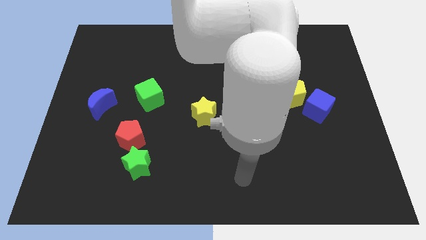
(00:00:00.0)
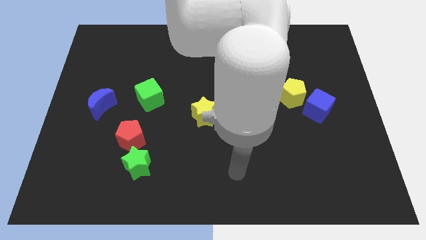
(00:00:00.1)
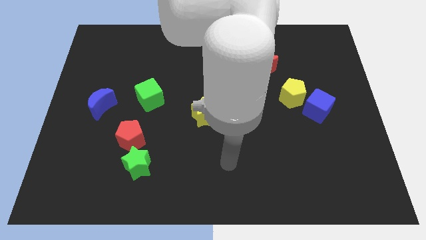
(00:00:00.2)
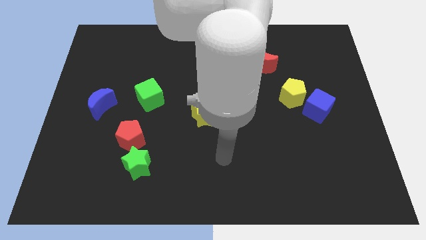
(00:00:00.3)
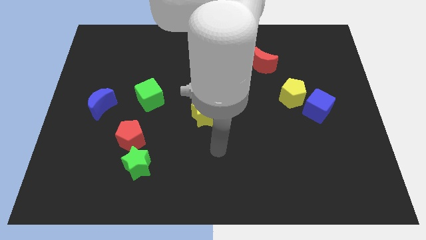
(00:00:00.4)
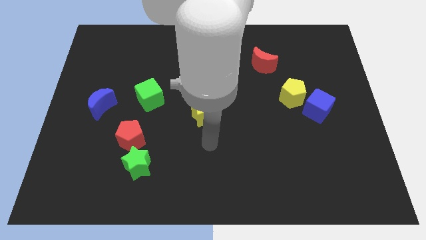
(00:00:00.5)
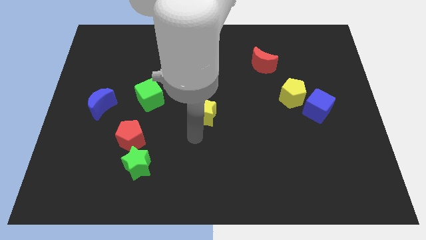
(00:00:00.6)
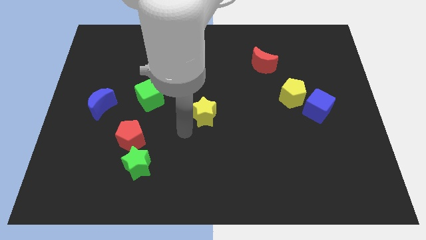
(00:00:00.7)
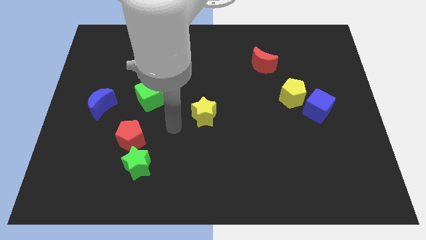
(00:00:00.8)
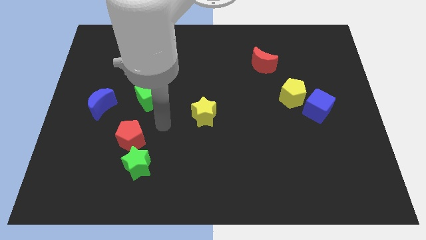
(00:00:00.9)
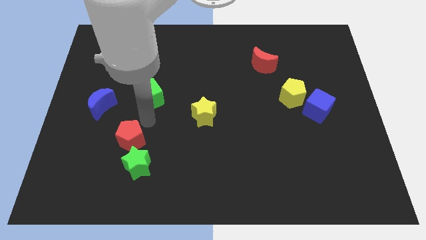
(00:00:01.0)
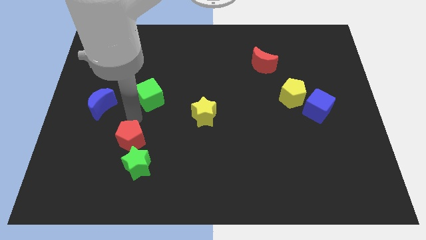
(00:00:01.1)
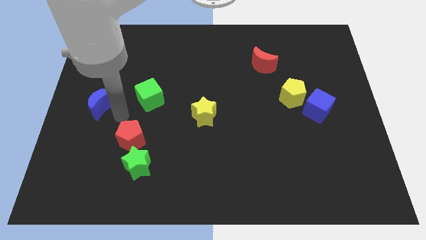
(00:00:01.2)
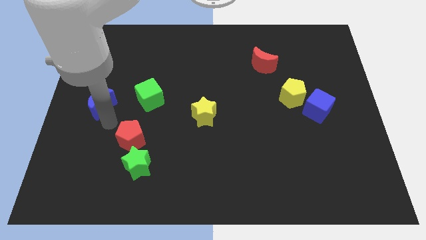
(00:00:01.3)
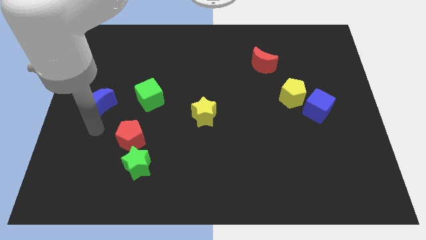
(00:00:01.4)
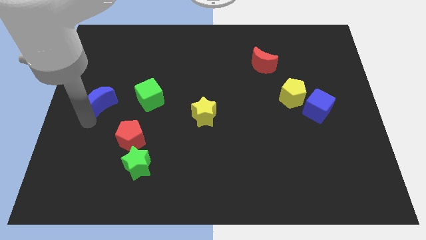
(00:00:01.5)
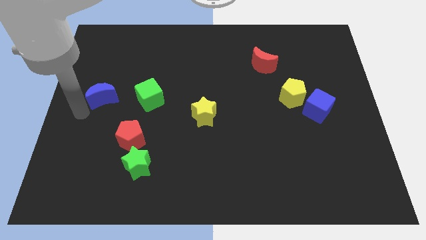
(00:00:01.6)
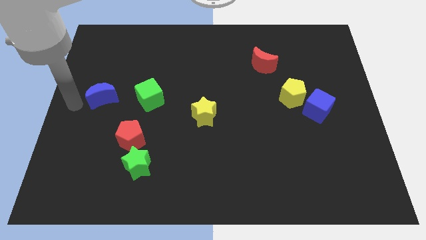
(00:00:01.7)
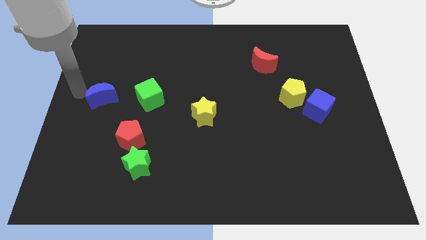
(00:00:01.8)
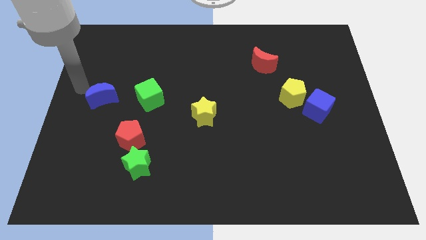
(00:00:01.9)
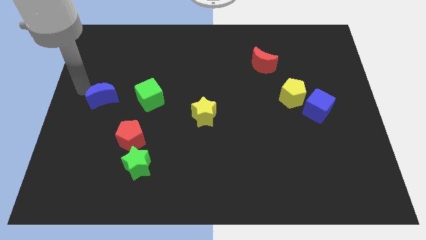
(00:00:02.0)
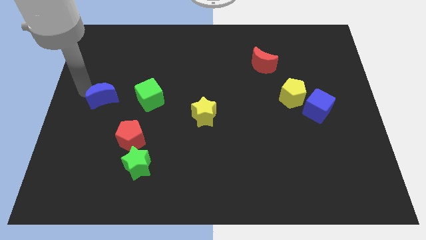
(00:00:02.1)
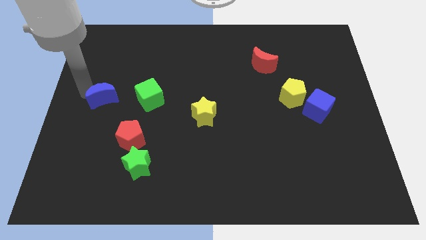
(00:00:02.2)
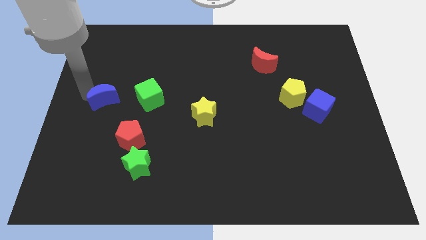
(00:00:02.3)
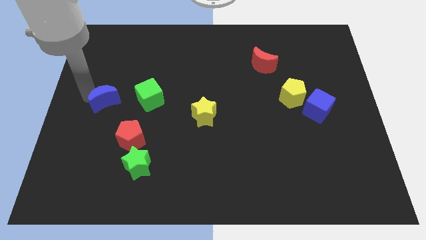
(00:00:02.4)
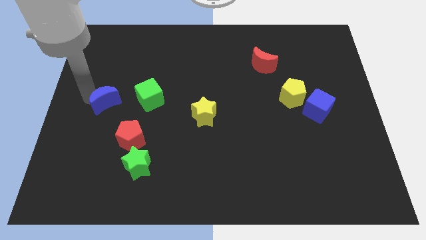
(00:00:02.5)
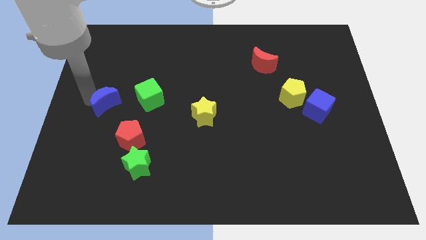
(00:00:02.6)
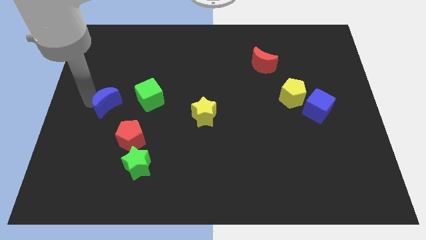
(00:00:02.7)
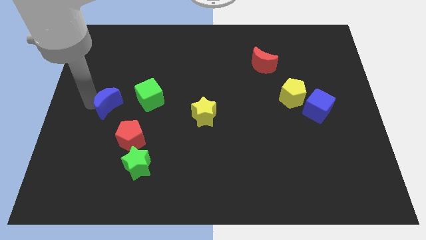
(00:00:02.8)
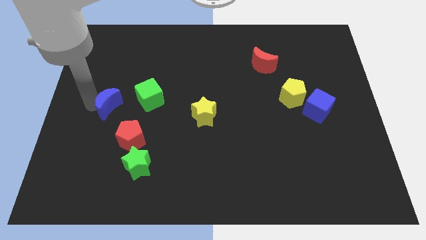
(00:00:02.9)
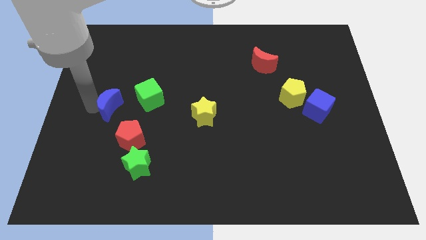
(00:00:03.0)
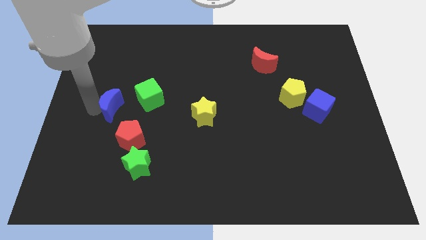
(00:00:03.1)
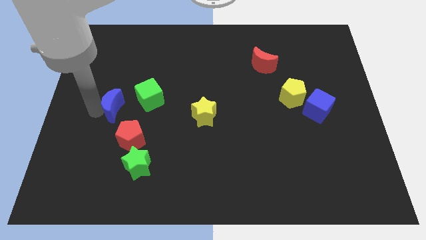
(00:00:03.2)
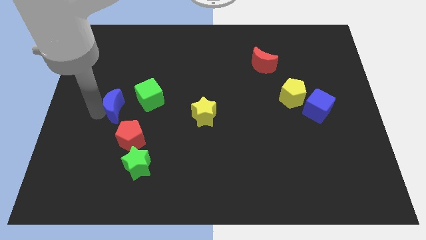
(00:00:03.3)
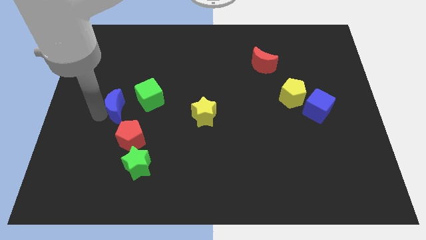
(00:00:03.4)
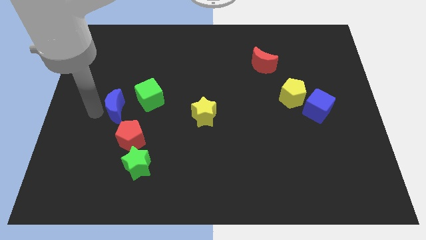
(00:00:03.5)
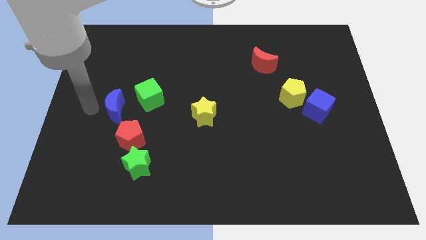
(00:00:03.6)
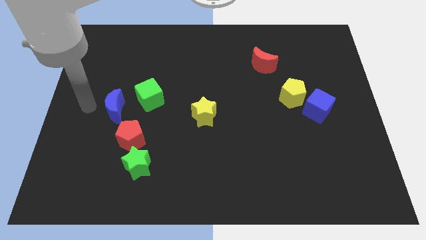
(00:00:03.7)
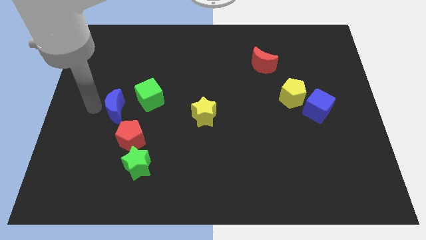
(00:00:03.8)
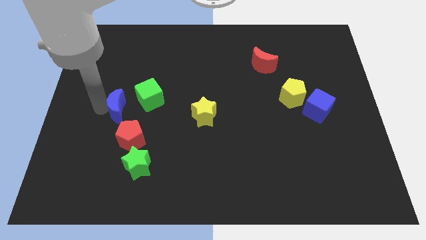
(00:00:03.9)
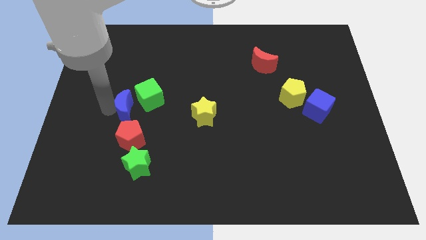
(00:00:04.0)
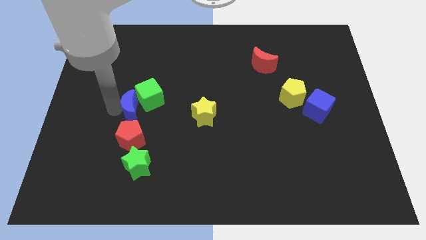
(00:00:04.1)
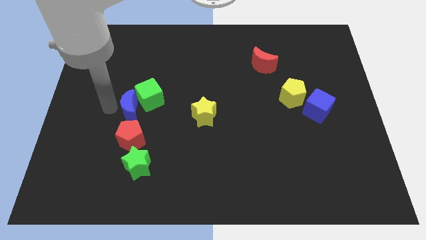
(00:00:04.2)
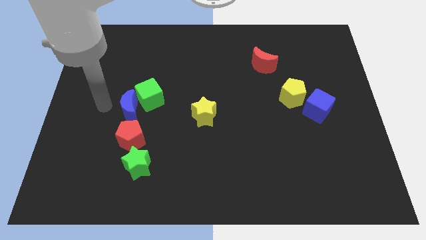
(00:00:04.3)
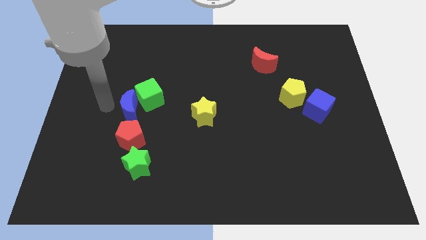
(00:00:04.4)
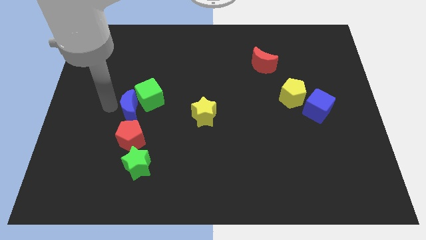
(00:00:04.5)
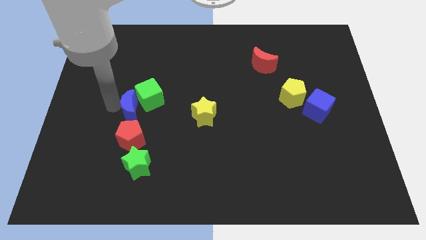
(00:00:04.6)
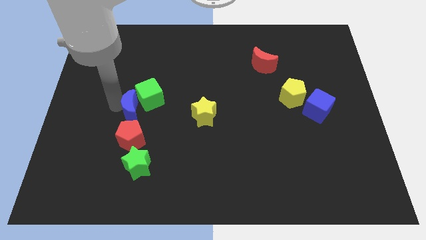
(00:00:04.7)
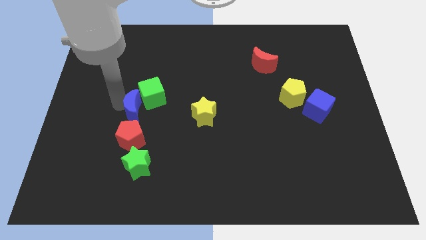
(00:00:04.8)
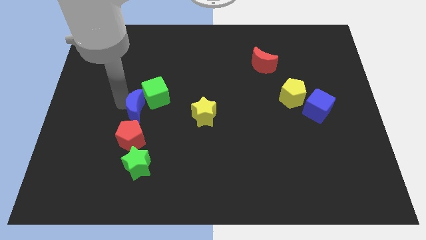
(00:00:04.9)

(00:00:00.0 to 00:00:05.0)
move the blue moon to the left of the yellow star

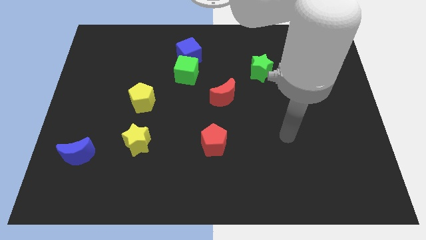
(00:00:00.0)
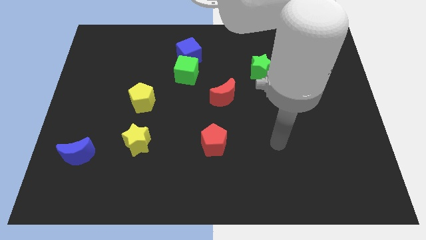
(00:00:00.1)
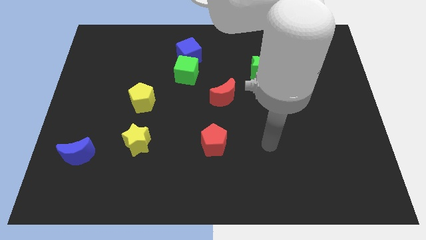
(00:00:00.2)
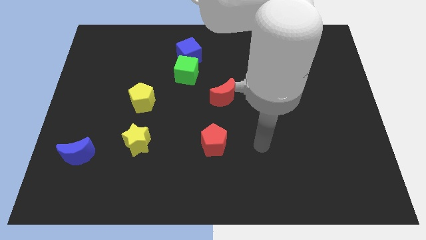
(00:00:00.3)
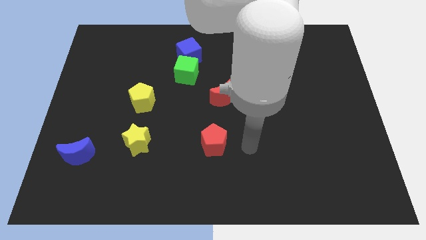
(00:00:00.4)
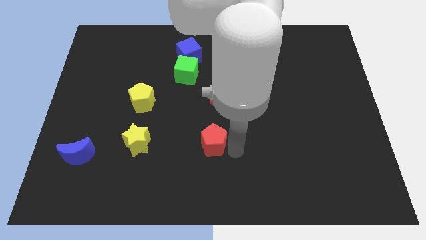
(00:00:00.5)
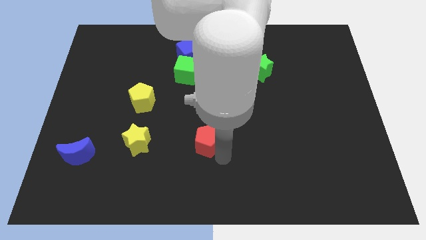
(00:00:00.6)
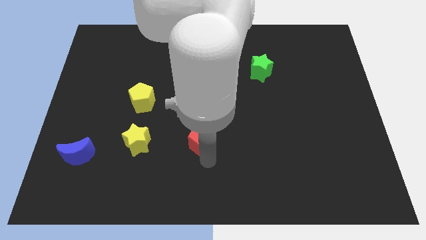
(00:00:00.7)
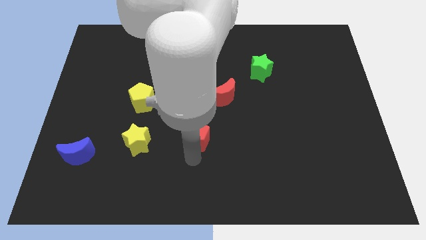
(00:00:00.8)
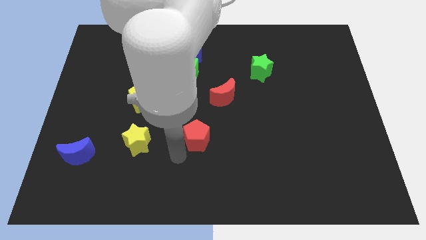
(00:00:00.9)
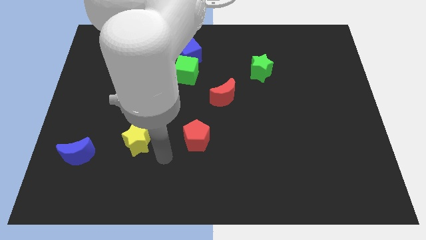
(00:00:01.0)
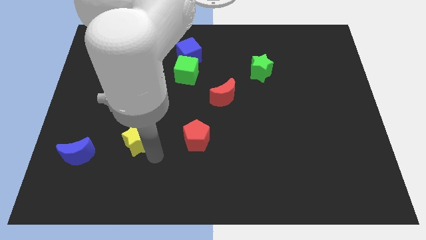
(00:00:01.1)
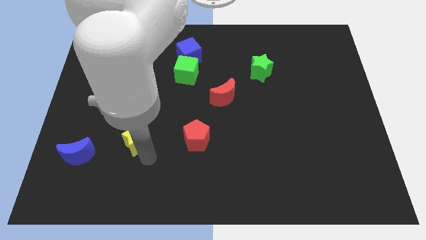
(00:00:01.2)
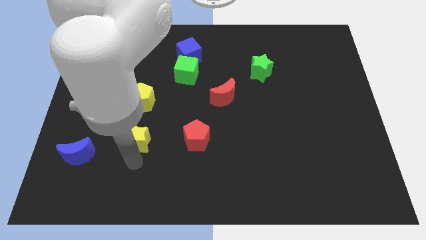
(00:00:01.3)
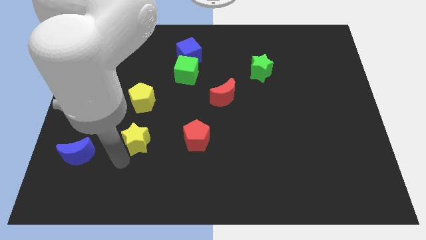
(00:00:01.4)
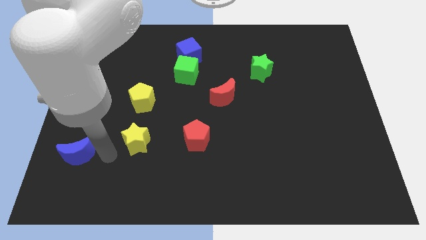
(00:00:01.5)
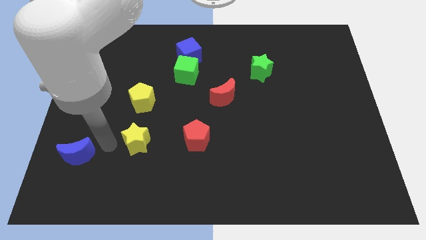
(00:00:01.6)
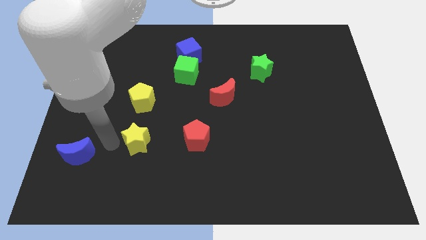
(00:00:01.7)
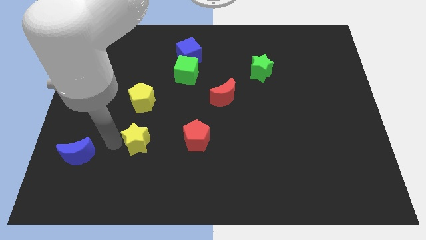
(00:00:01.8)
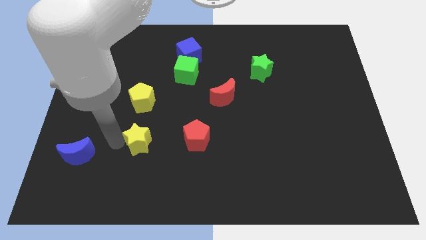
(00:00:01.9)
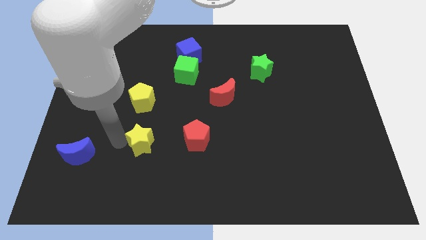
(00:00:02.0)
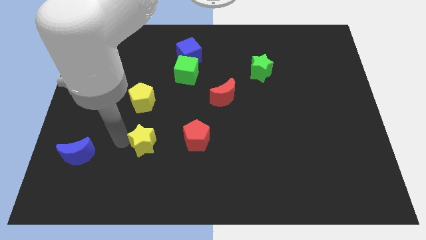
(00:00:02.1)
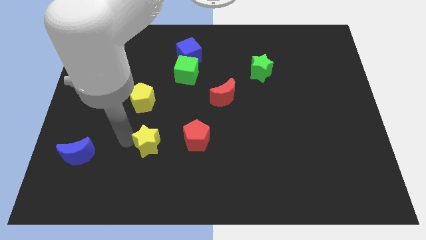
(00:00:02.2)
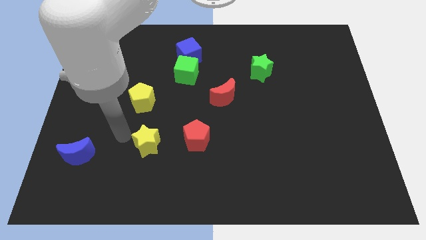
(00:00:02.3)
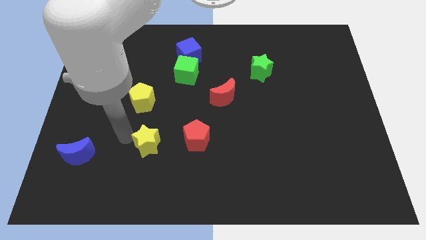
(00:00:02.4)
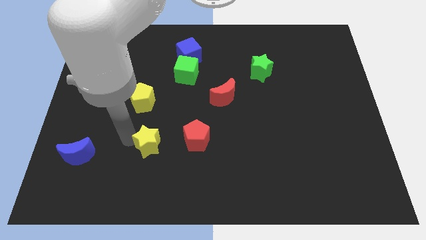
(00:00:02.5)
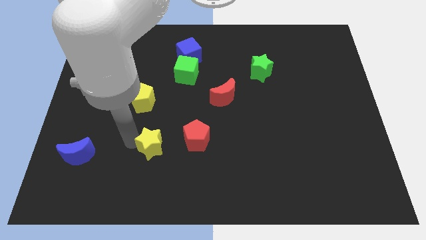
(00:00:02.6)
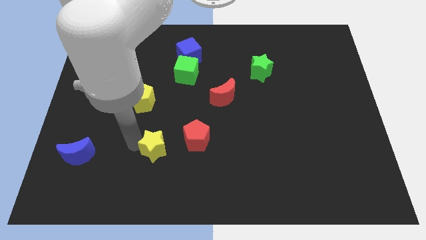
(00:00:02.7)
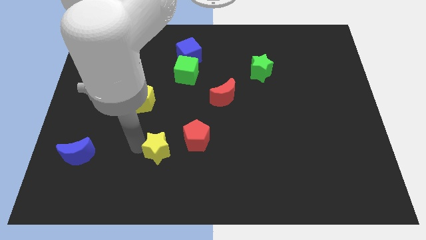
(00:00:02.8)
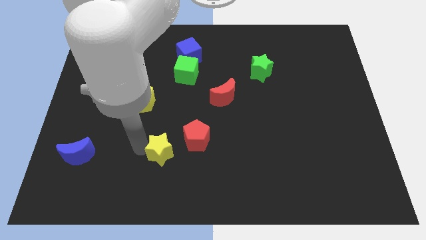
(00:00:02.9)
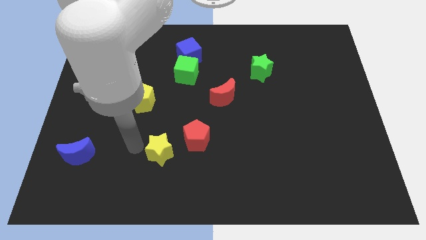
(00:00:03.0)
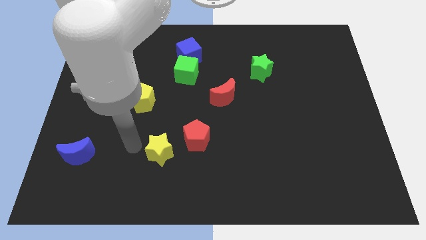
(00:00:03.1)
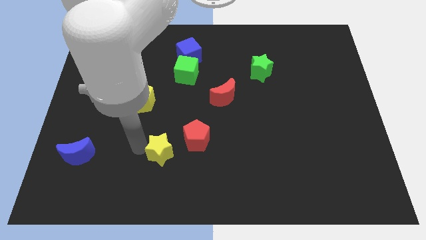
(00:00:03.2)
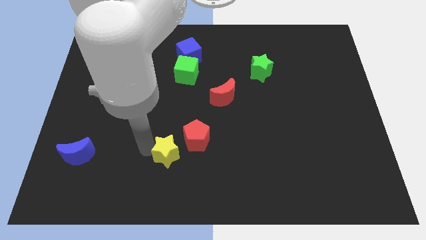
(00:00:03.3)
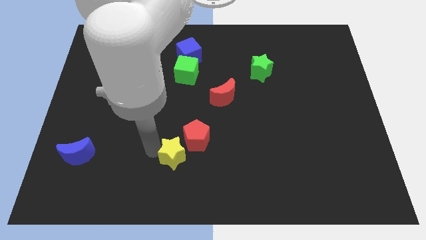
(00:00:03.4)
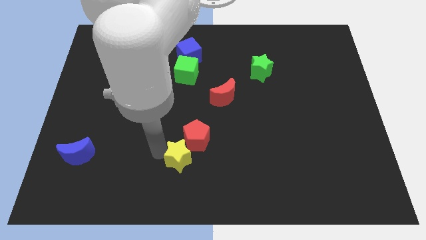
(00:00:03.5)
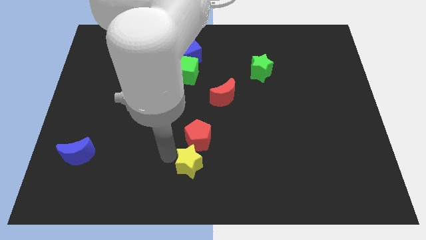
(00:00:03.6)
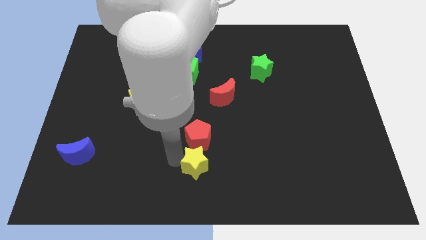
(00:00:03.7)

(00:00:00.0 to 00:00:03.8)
push the yellow star diagonally down and to the right of the red pentagon
